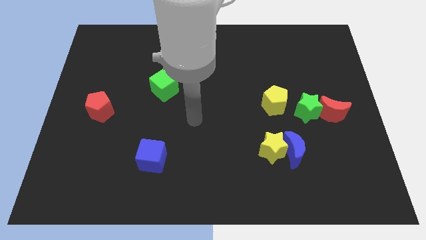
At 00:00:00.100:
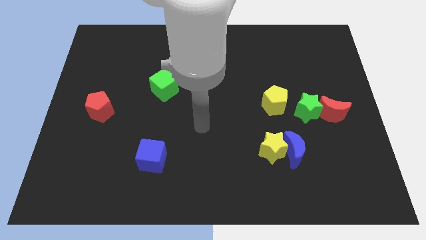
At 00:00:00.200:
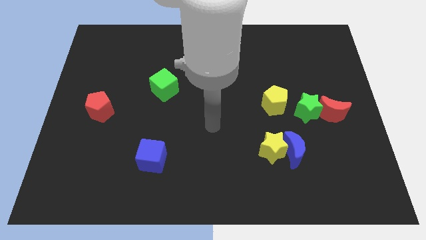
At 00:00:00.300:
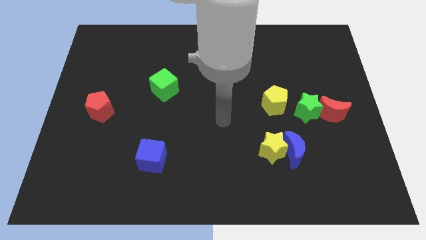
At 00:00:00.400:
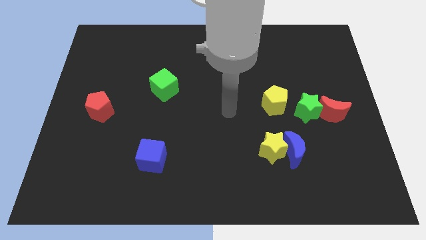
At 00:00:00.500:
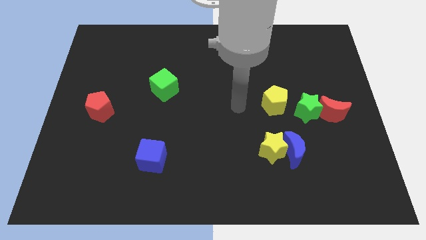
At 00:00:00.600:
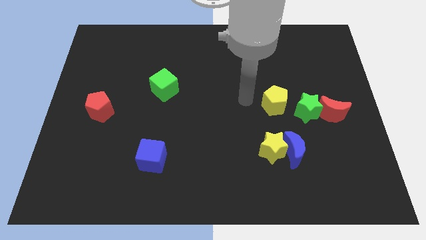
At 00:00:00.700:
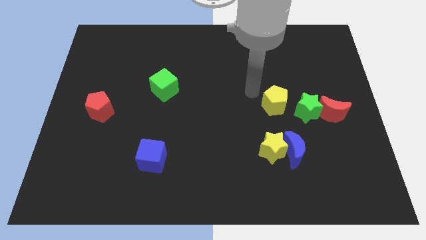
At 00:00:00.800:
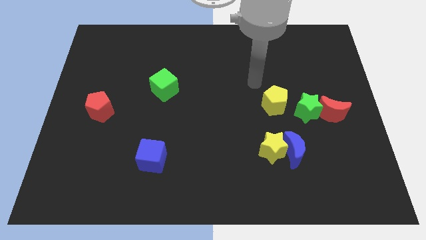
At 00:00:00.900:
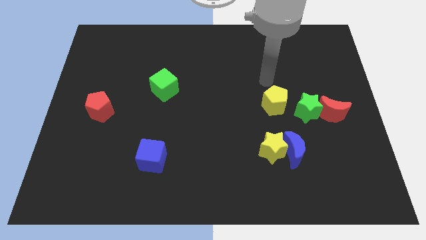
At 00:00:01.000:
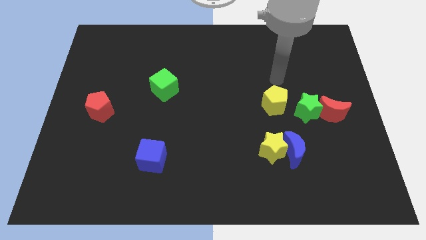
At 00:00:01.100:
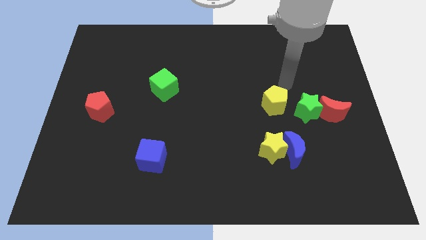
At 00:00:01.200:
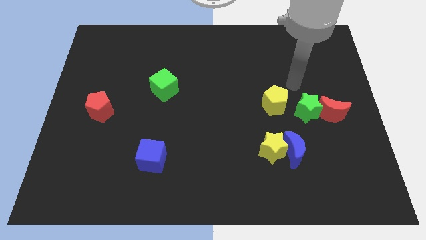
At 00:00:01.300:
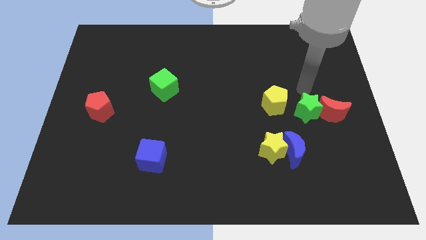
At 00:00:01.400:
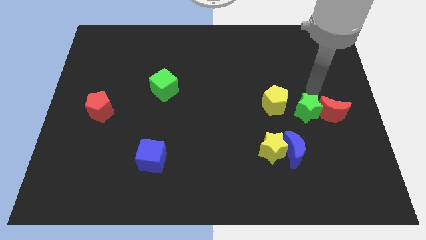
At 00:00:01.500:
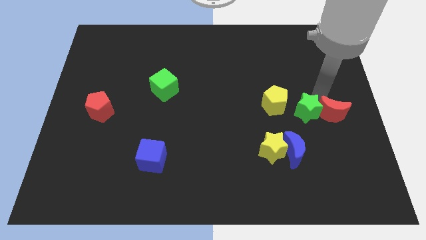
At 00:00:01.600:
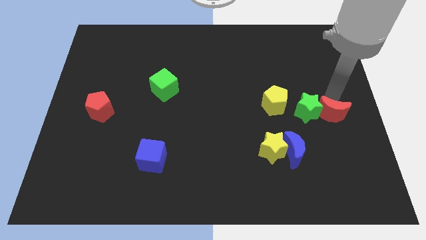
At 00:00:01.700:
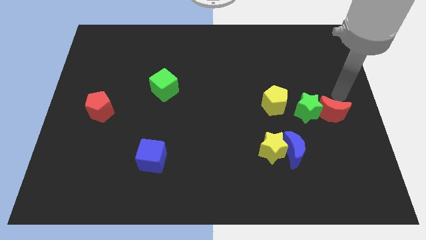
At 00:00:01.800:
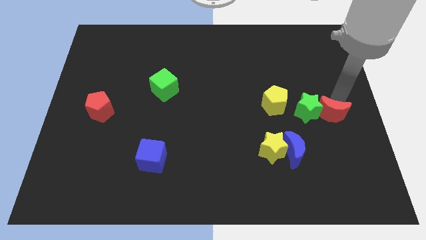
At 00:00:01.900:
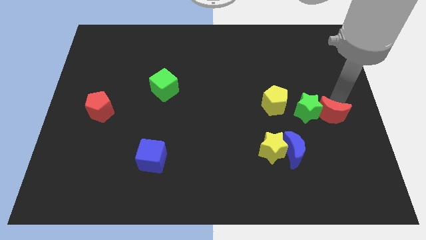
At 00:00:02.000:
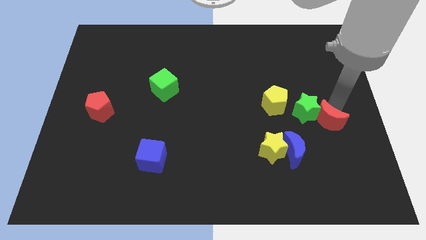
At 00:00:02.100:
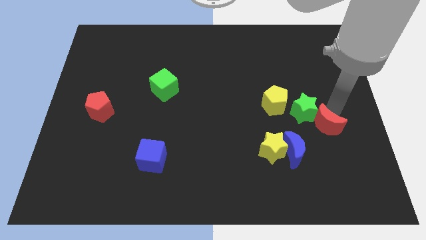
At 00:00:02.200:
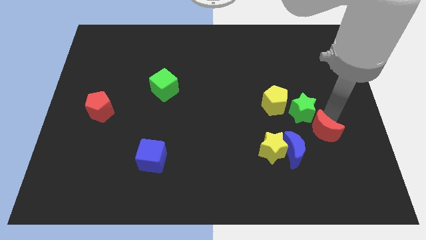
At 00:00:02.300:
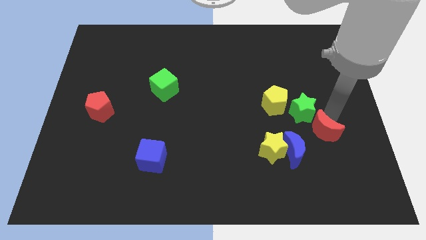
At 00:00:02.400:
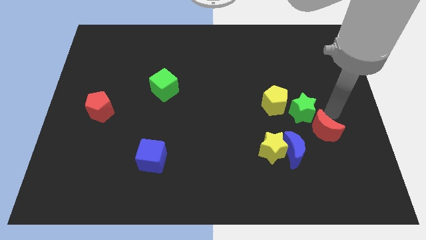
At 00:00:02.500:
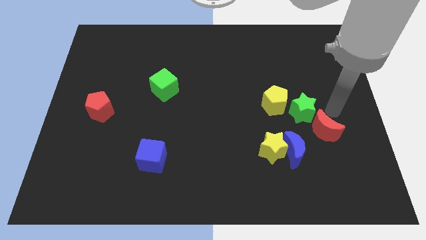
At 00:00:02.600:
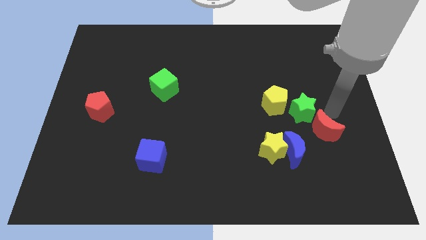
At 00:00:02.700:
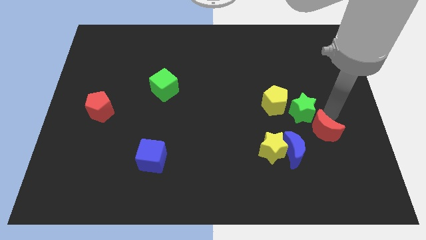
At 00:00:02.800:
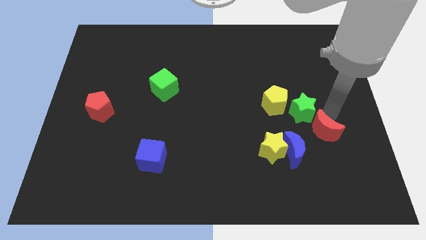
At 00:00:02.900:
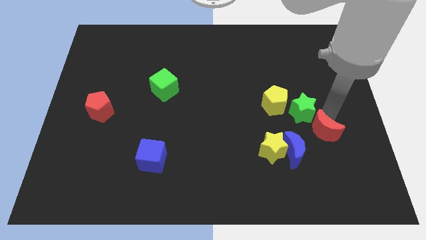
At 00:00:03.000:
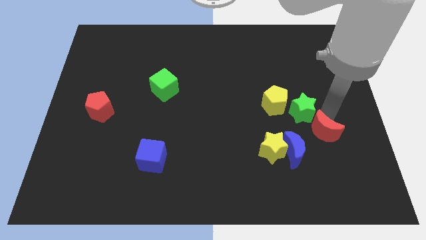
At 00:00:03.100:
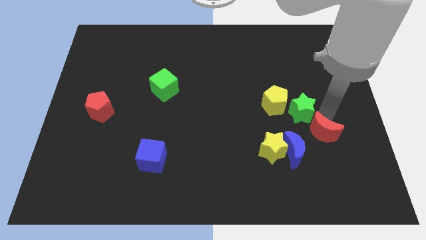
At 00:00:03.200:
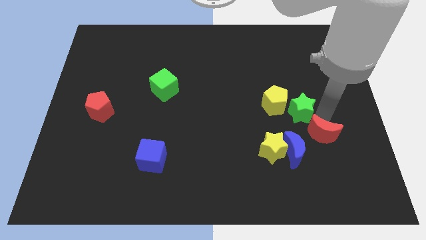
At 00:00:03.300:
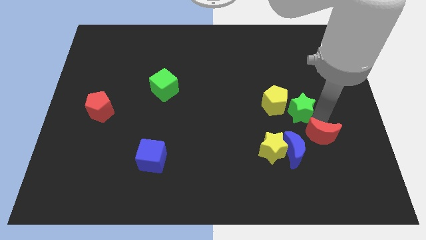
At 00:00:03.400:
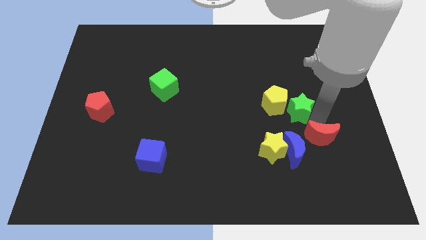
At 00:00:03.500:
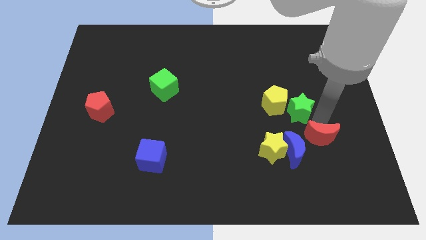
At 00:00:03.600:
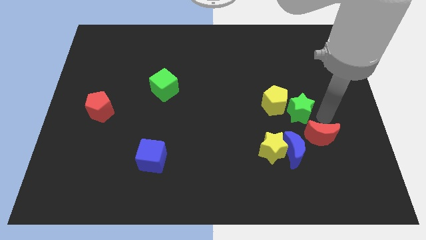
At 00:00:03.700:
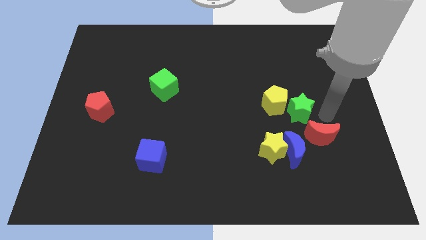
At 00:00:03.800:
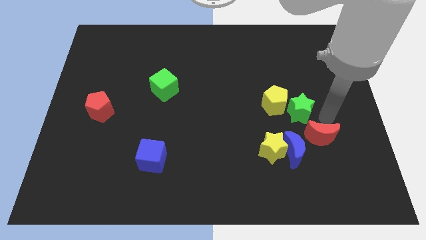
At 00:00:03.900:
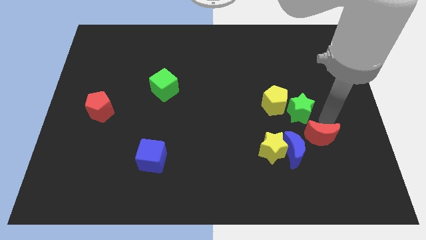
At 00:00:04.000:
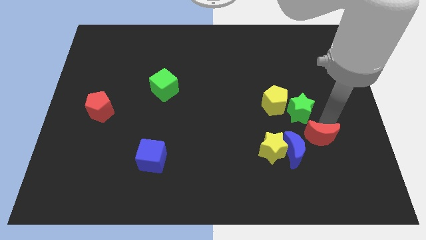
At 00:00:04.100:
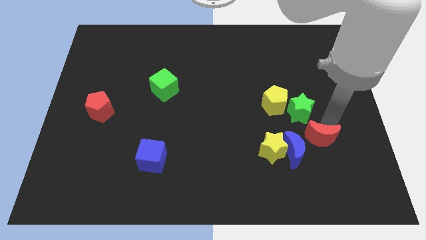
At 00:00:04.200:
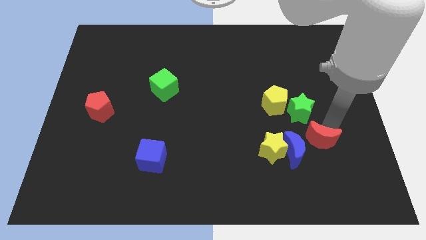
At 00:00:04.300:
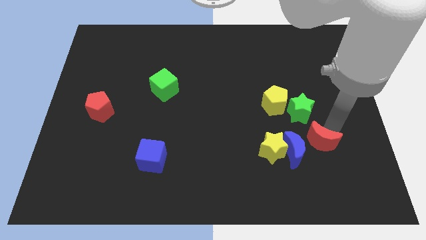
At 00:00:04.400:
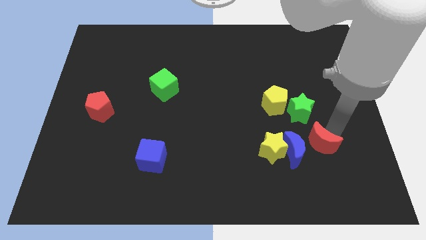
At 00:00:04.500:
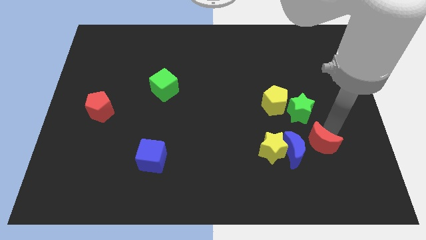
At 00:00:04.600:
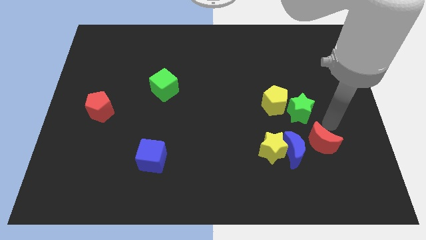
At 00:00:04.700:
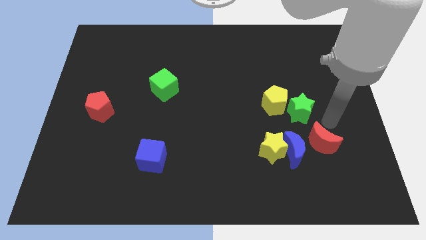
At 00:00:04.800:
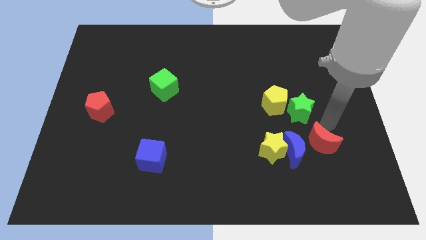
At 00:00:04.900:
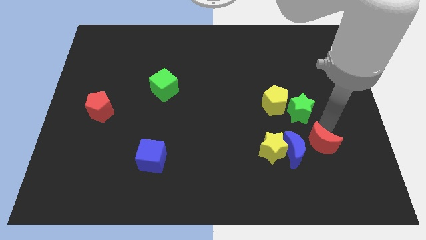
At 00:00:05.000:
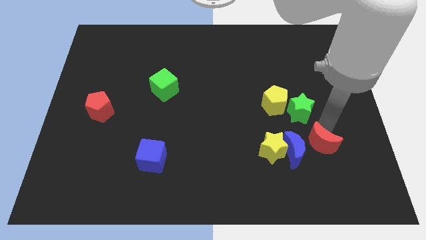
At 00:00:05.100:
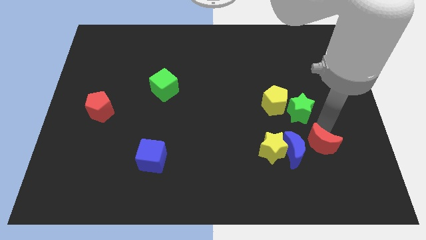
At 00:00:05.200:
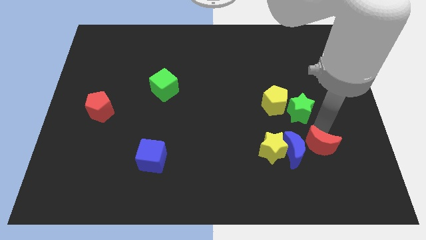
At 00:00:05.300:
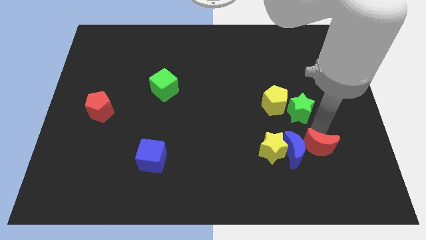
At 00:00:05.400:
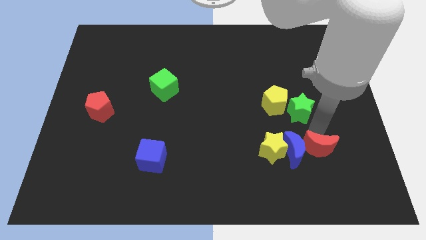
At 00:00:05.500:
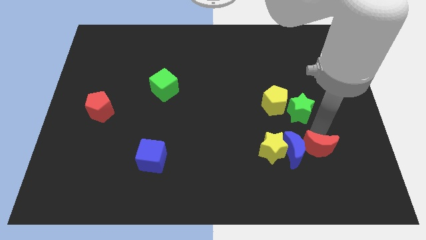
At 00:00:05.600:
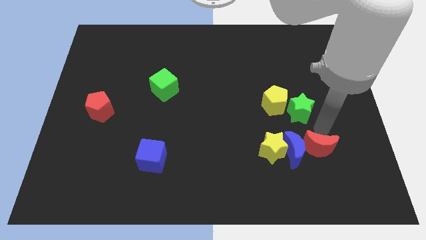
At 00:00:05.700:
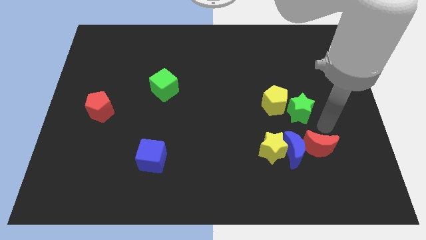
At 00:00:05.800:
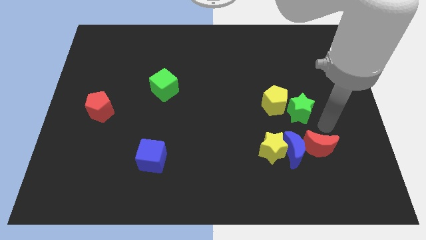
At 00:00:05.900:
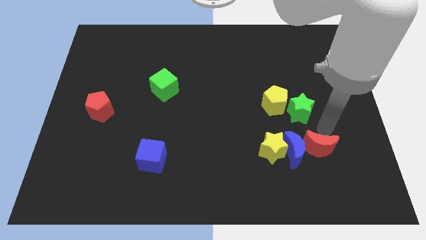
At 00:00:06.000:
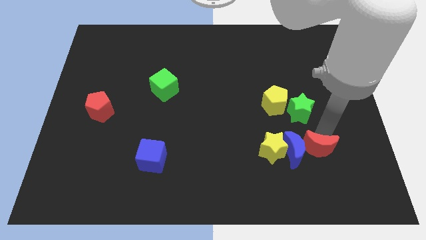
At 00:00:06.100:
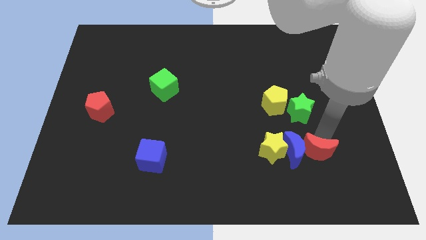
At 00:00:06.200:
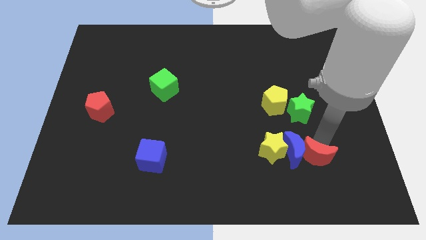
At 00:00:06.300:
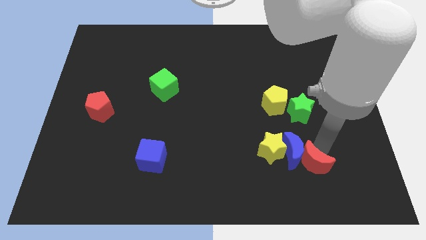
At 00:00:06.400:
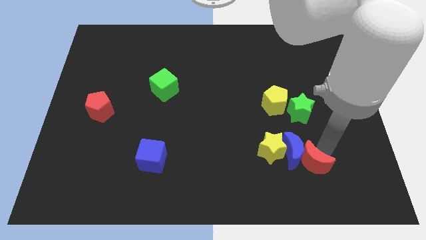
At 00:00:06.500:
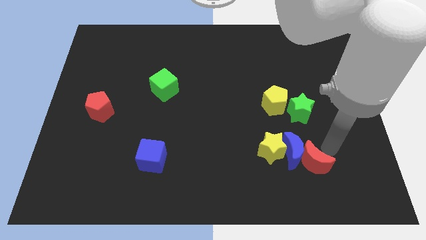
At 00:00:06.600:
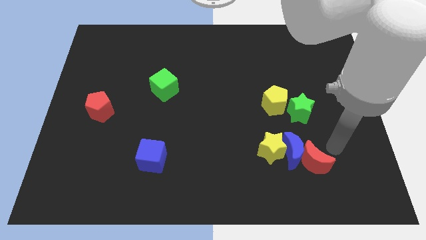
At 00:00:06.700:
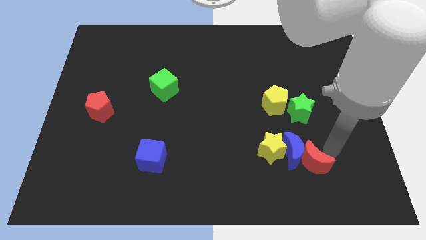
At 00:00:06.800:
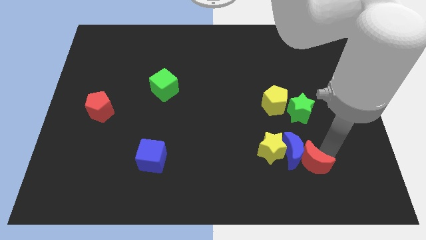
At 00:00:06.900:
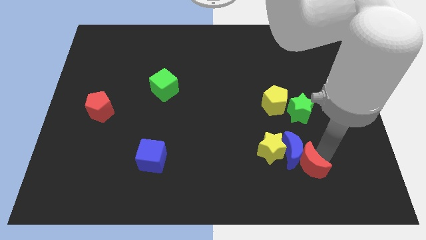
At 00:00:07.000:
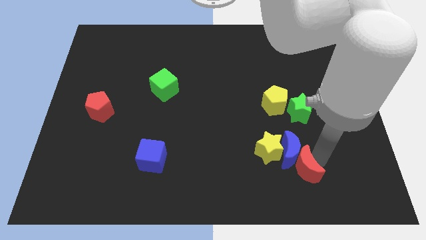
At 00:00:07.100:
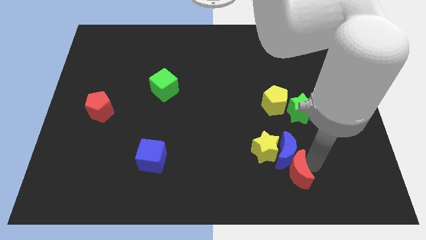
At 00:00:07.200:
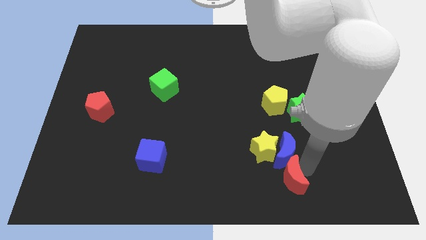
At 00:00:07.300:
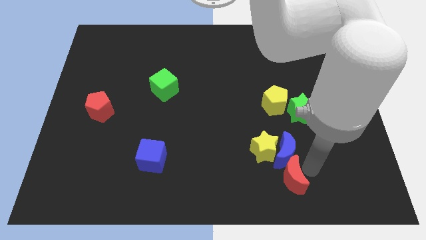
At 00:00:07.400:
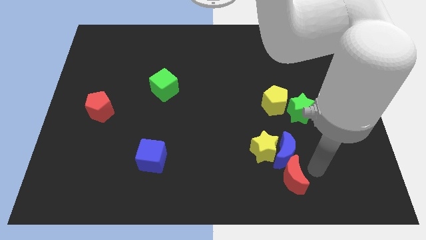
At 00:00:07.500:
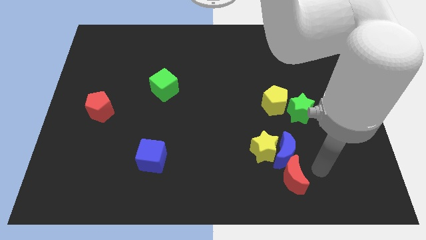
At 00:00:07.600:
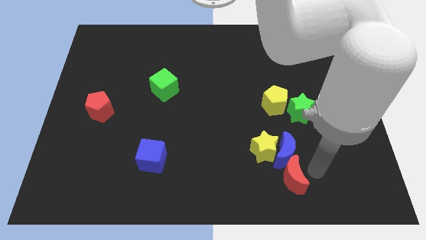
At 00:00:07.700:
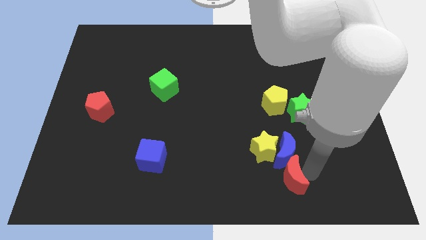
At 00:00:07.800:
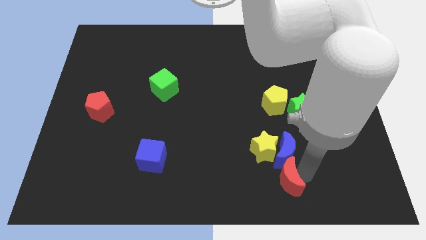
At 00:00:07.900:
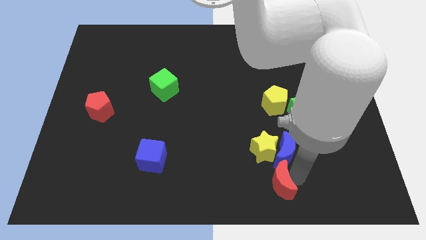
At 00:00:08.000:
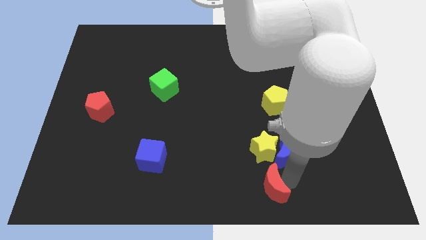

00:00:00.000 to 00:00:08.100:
move the red moon to the bottom side
